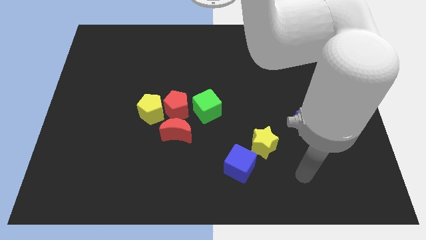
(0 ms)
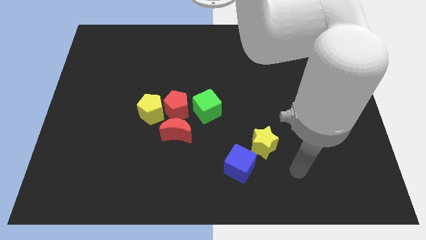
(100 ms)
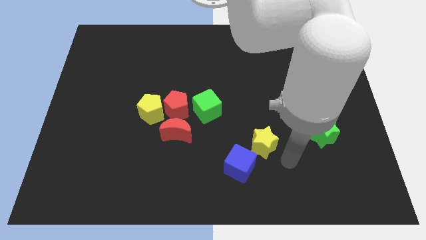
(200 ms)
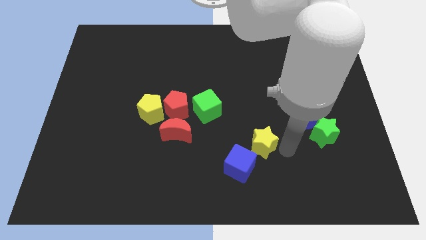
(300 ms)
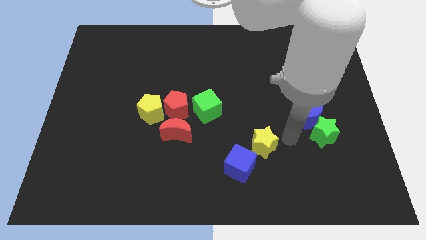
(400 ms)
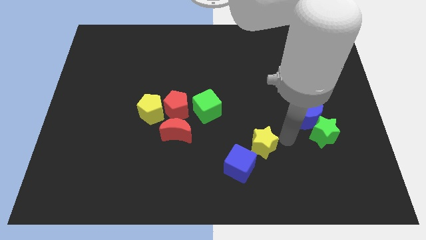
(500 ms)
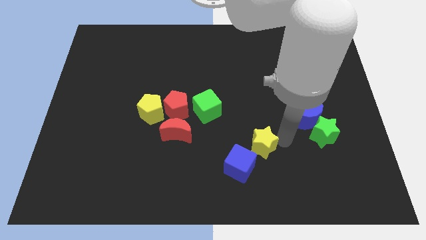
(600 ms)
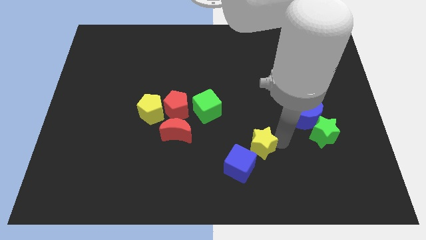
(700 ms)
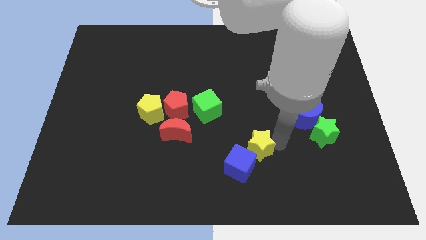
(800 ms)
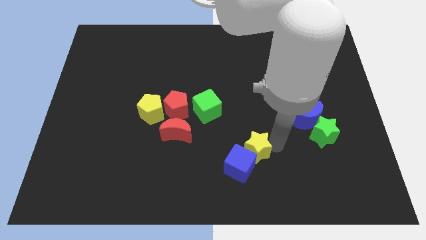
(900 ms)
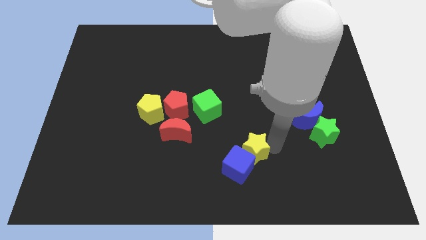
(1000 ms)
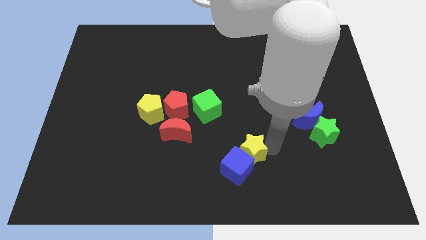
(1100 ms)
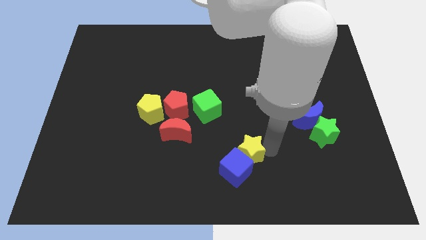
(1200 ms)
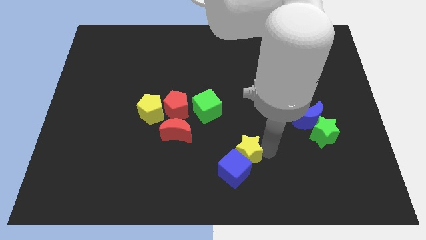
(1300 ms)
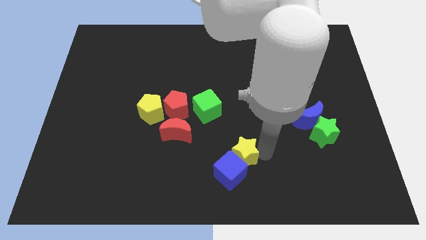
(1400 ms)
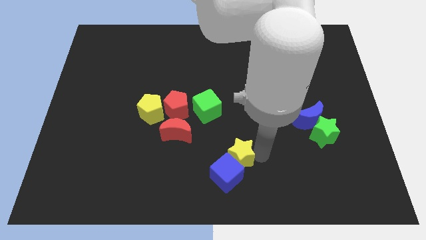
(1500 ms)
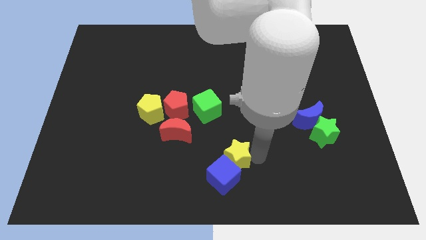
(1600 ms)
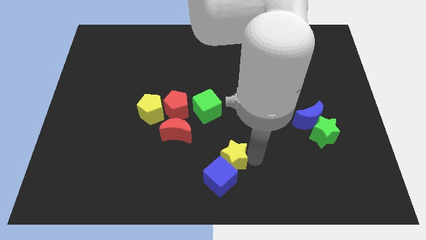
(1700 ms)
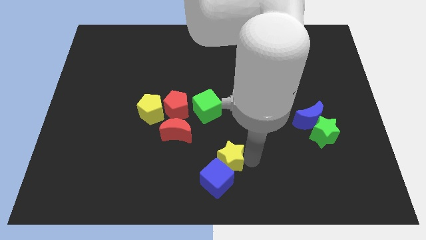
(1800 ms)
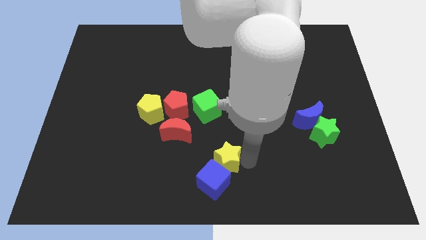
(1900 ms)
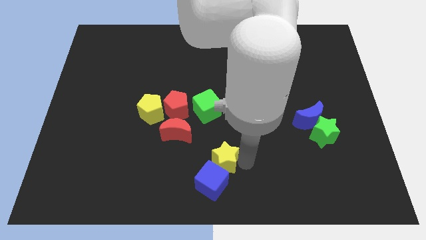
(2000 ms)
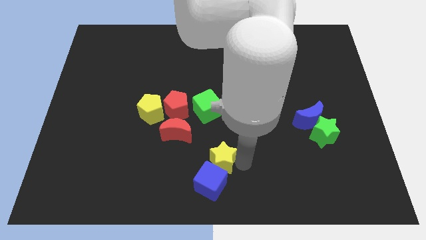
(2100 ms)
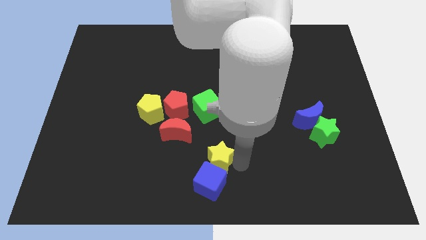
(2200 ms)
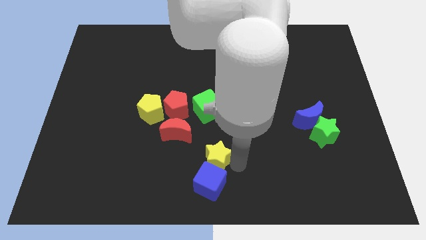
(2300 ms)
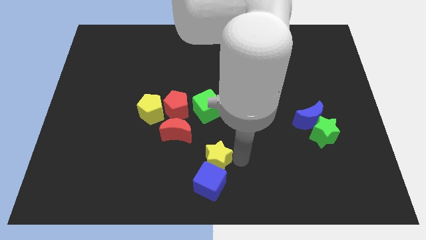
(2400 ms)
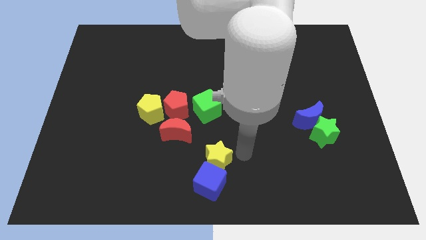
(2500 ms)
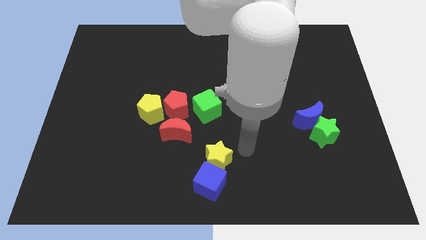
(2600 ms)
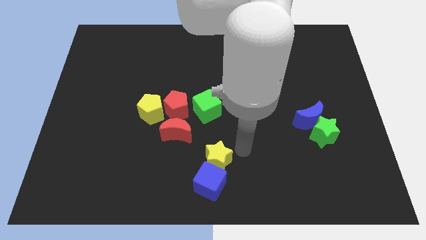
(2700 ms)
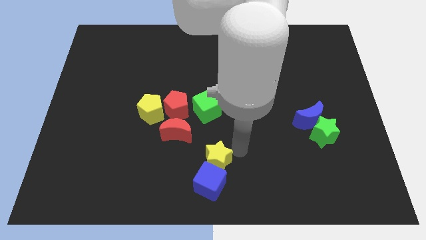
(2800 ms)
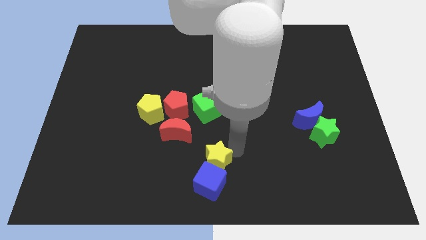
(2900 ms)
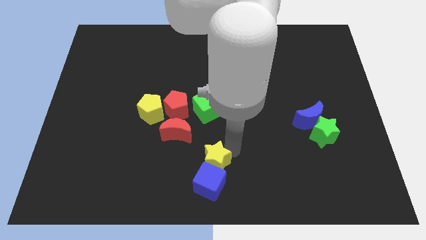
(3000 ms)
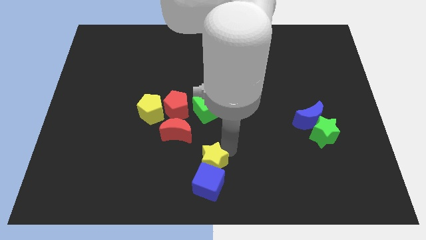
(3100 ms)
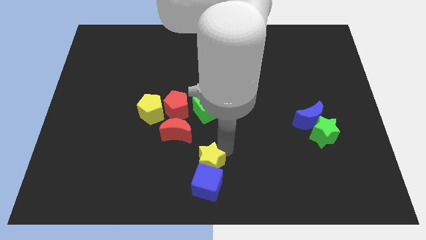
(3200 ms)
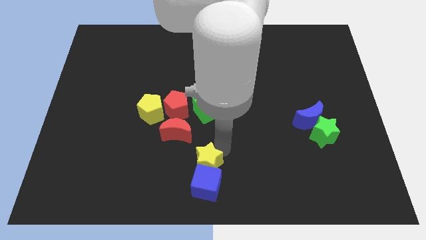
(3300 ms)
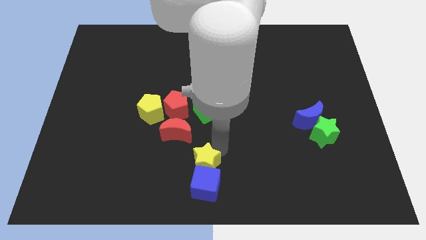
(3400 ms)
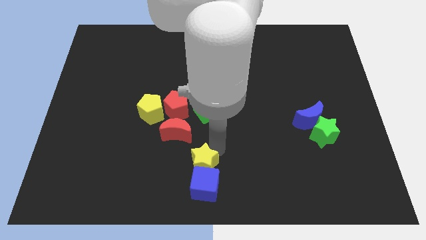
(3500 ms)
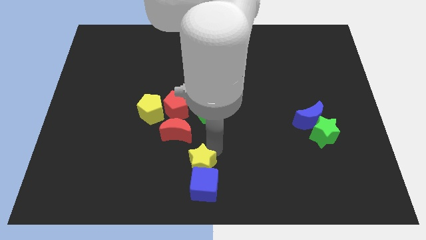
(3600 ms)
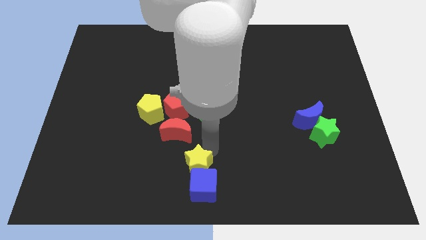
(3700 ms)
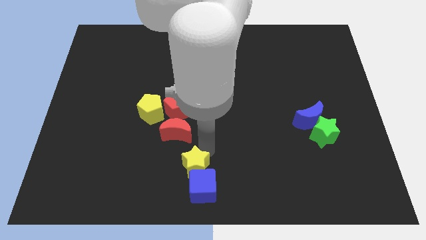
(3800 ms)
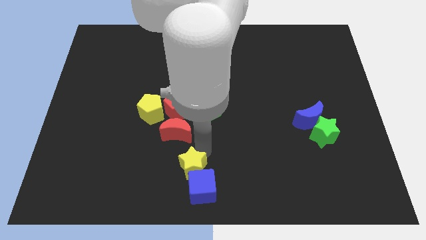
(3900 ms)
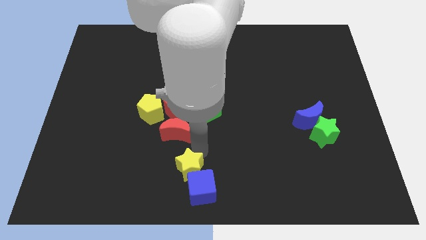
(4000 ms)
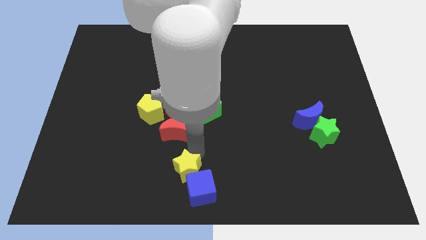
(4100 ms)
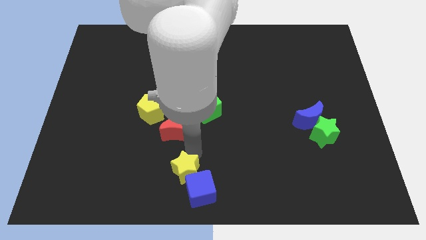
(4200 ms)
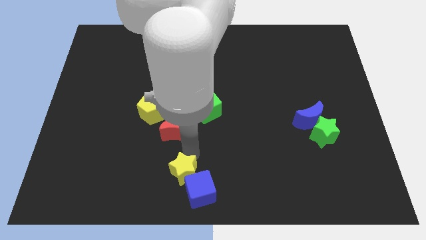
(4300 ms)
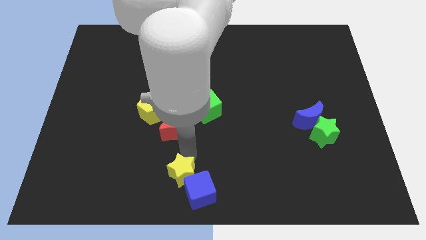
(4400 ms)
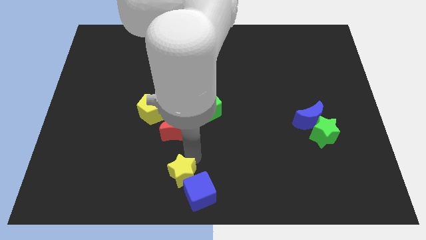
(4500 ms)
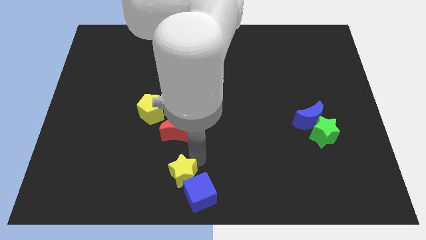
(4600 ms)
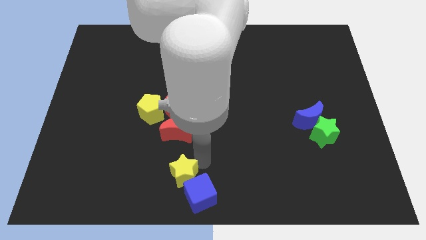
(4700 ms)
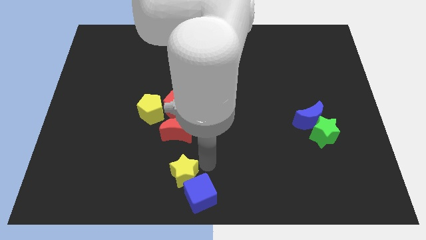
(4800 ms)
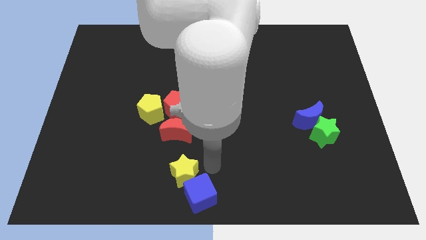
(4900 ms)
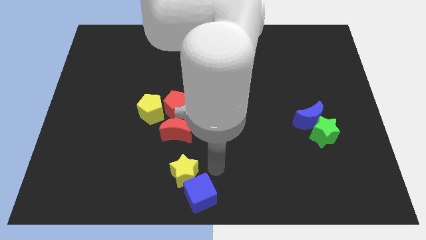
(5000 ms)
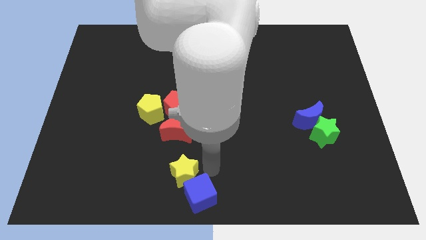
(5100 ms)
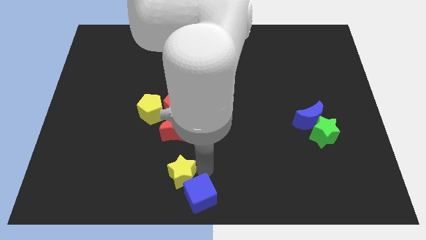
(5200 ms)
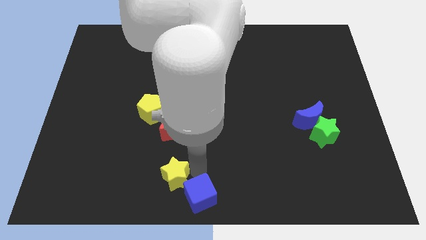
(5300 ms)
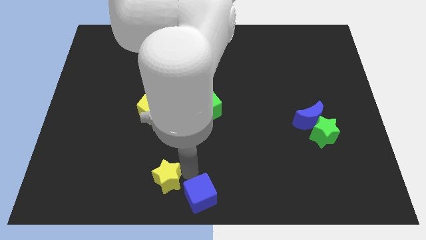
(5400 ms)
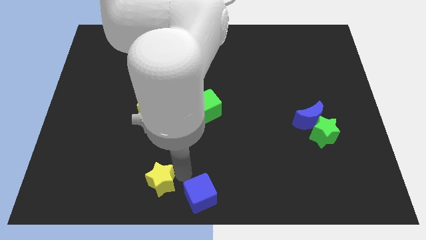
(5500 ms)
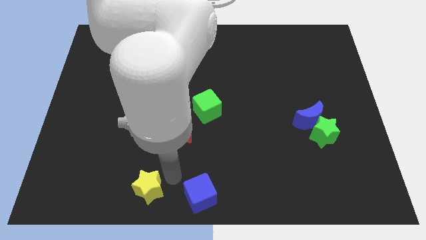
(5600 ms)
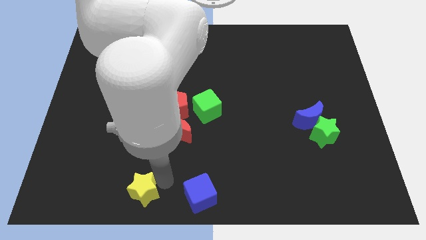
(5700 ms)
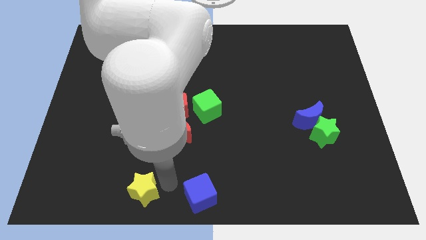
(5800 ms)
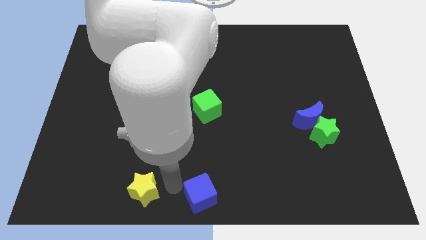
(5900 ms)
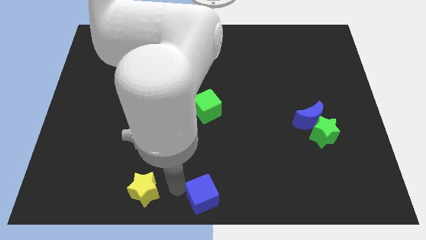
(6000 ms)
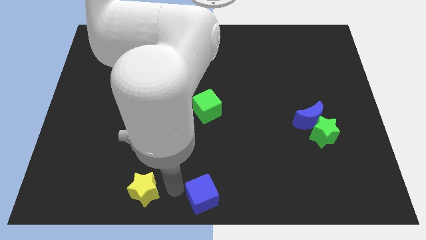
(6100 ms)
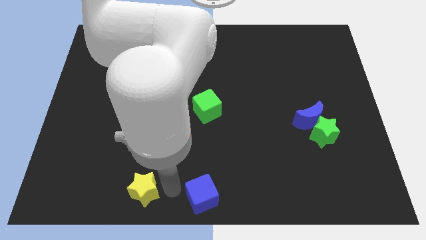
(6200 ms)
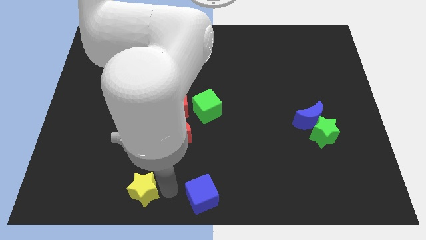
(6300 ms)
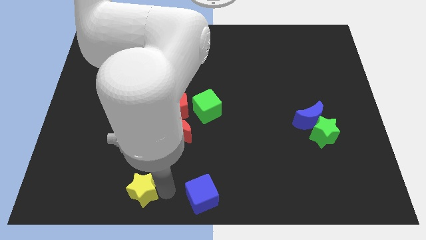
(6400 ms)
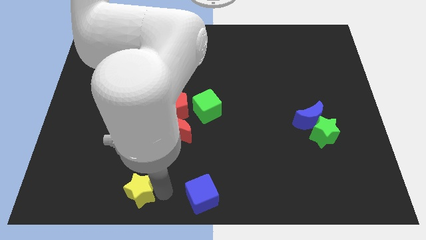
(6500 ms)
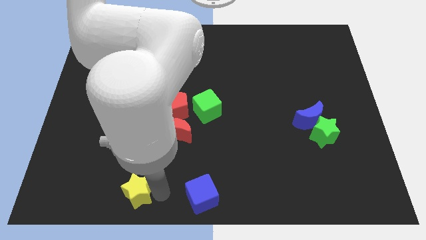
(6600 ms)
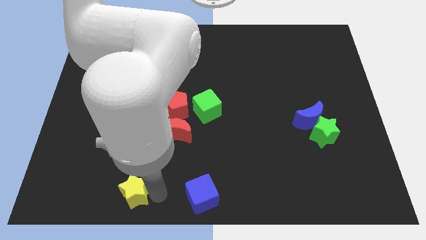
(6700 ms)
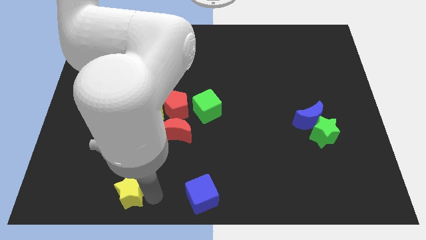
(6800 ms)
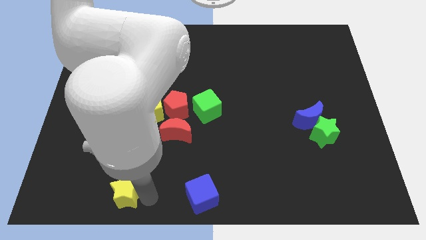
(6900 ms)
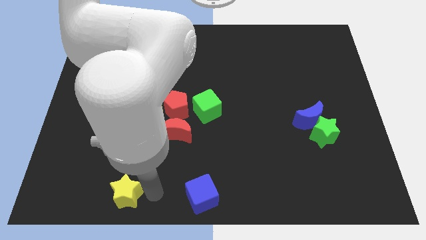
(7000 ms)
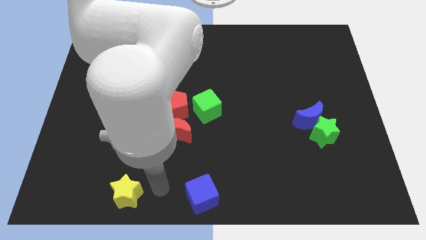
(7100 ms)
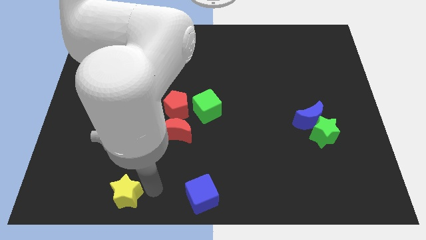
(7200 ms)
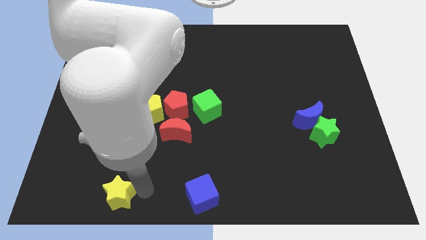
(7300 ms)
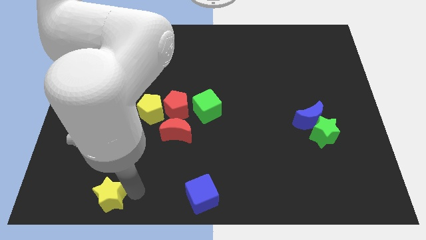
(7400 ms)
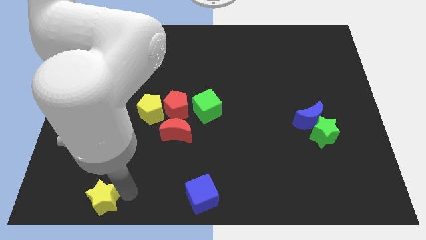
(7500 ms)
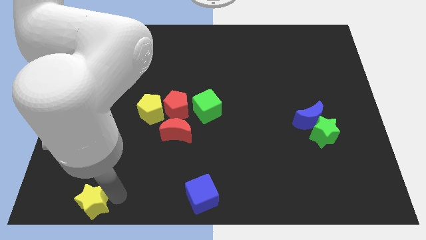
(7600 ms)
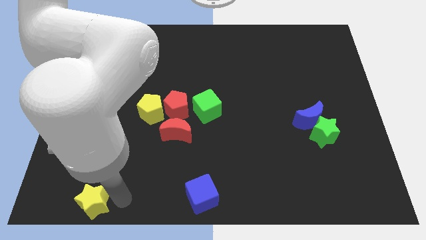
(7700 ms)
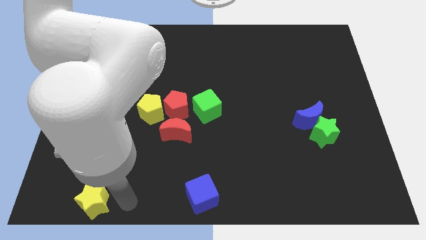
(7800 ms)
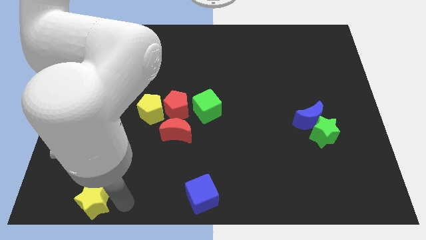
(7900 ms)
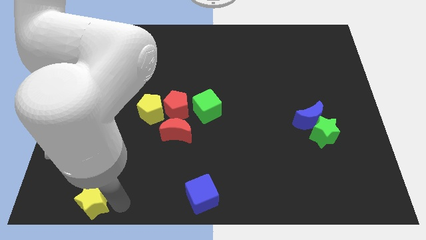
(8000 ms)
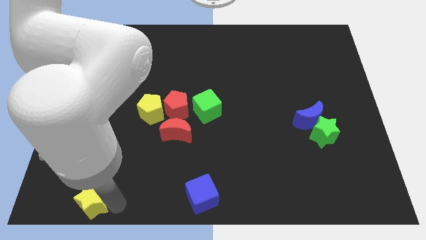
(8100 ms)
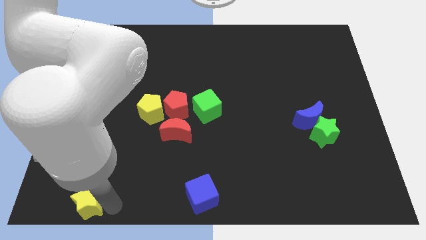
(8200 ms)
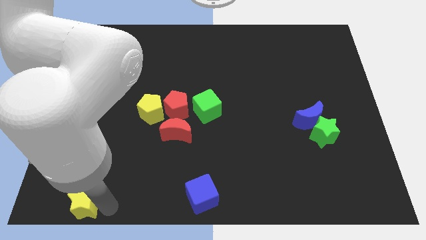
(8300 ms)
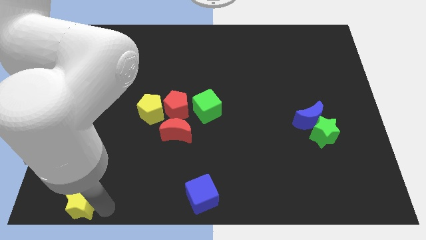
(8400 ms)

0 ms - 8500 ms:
slide the yellow star to the bottom left corner
